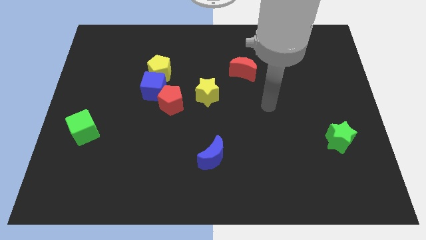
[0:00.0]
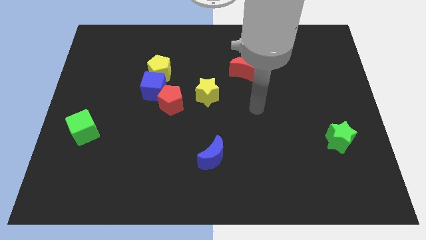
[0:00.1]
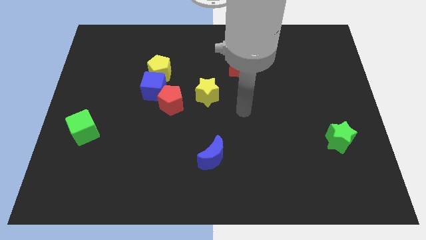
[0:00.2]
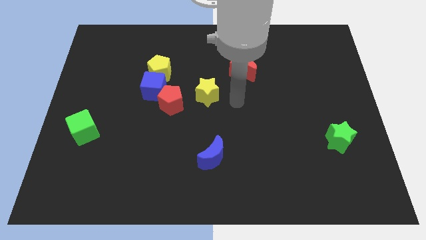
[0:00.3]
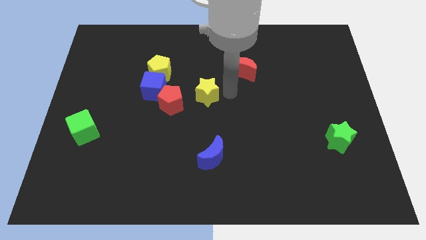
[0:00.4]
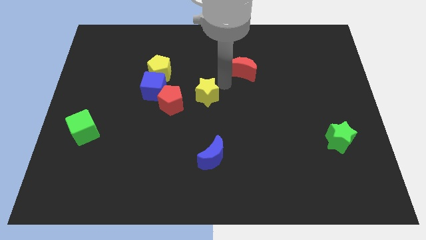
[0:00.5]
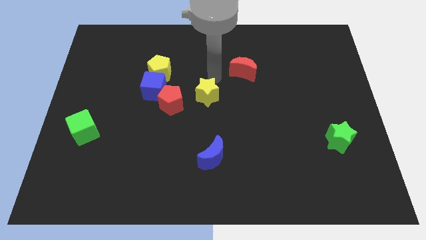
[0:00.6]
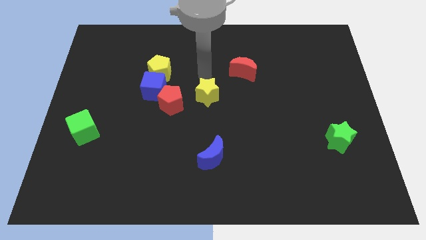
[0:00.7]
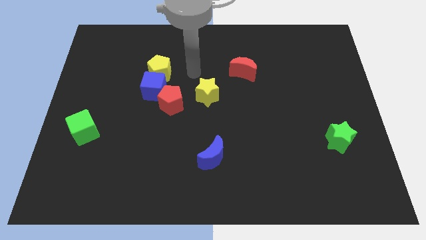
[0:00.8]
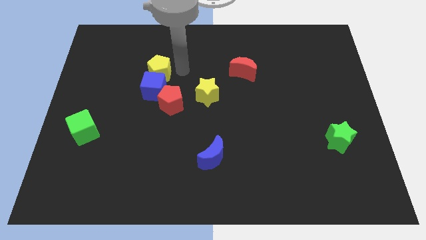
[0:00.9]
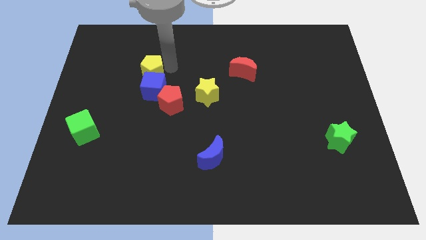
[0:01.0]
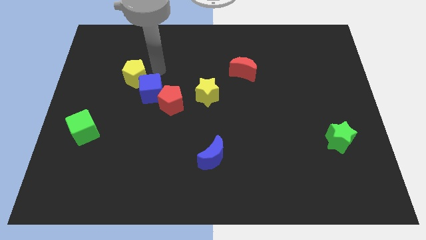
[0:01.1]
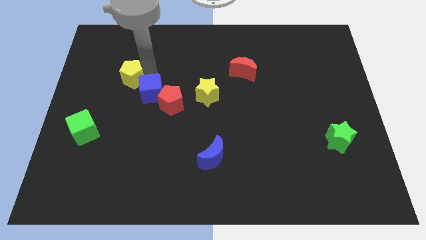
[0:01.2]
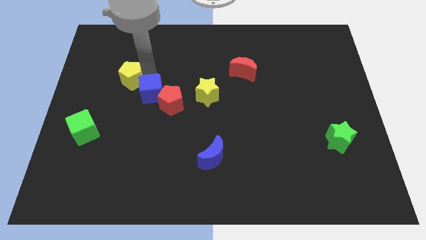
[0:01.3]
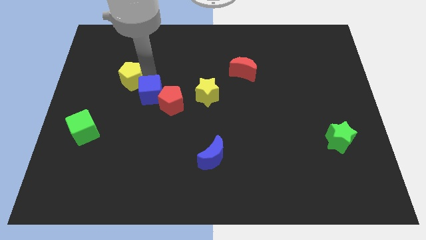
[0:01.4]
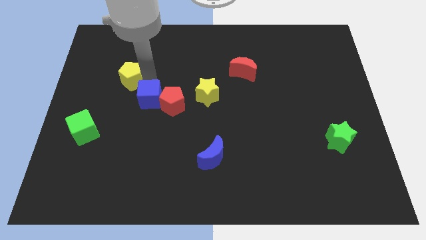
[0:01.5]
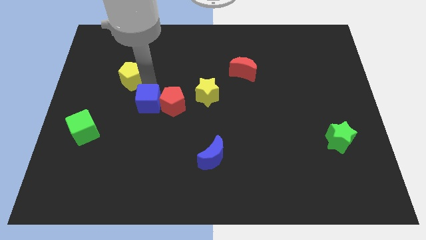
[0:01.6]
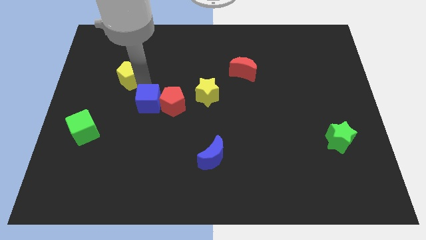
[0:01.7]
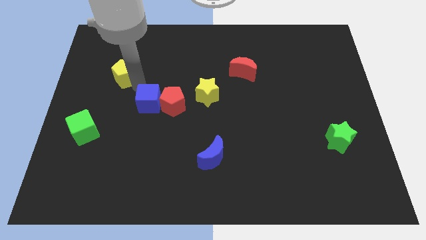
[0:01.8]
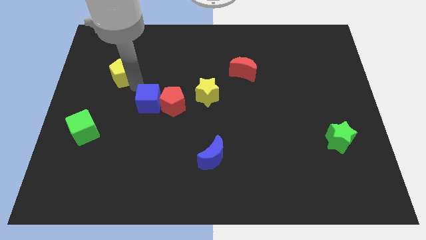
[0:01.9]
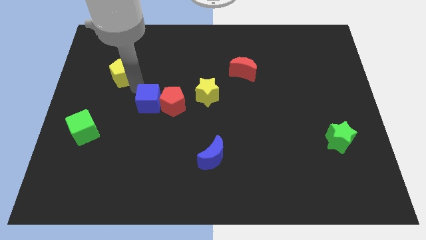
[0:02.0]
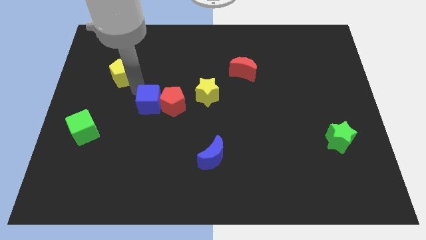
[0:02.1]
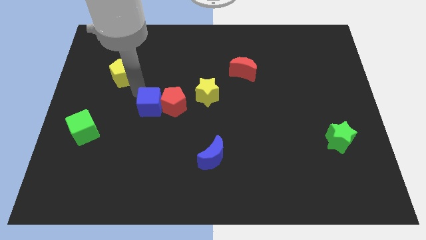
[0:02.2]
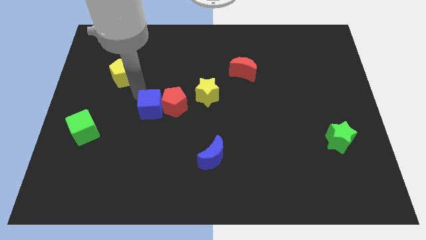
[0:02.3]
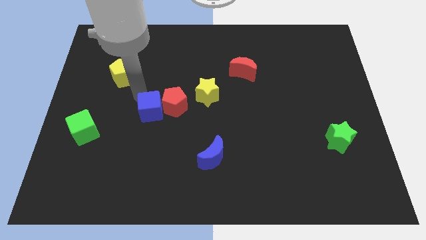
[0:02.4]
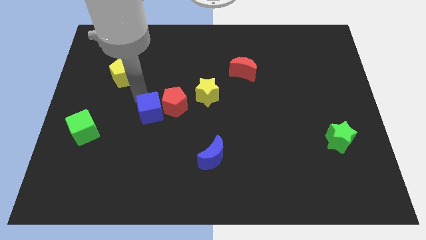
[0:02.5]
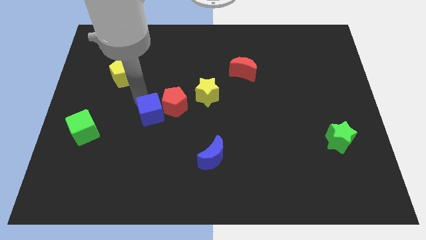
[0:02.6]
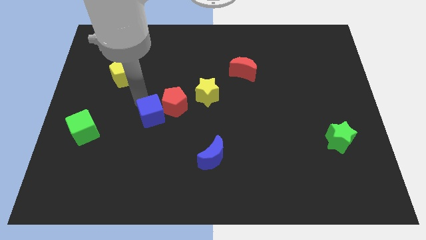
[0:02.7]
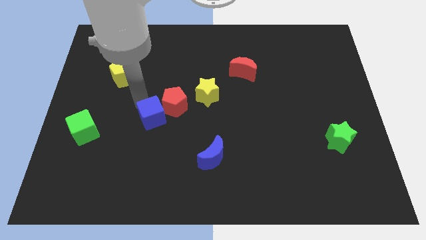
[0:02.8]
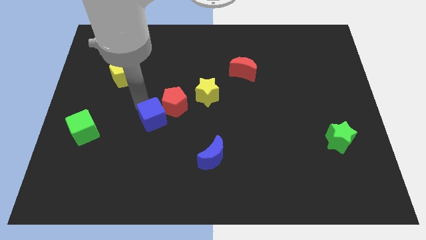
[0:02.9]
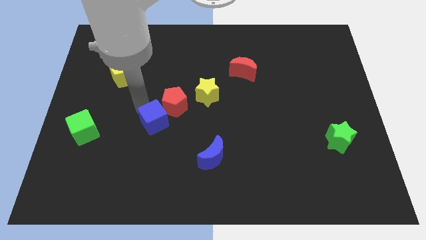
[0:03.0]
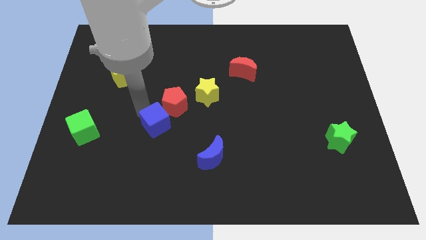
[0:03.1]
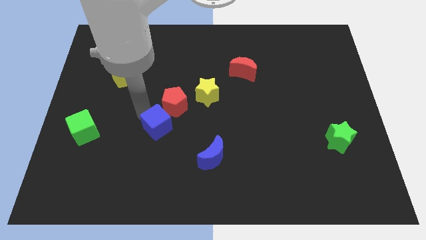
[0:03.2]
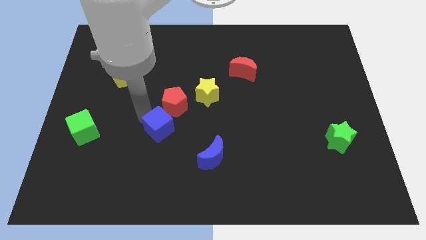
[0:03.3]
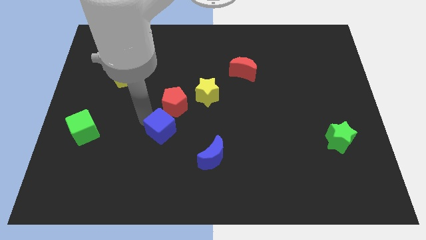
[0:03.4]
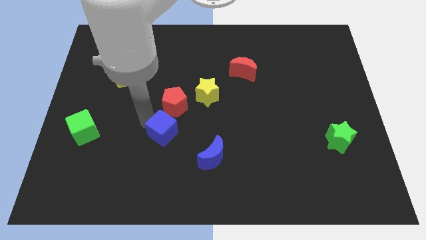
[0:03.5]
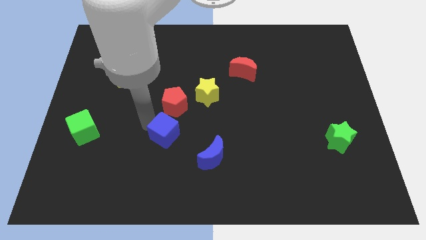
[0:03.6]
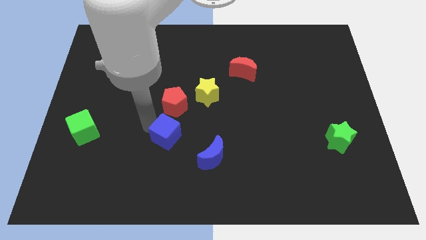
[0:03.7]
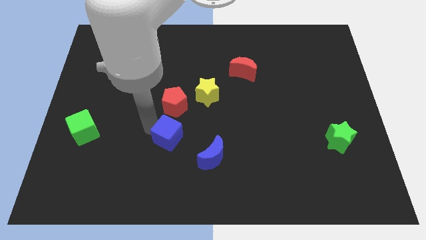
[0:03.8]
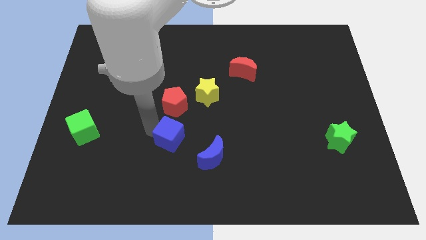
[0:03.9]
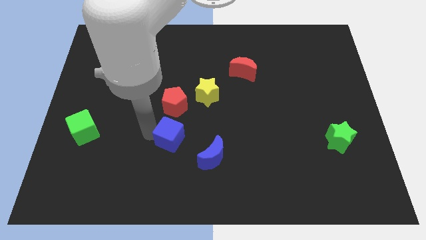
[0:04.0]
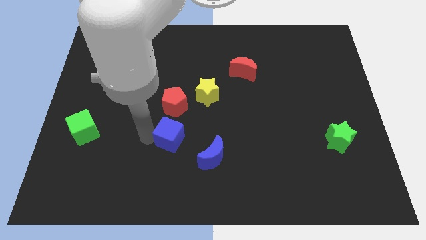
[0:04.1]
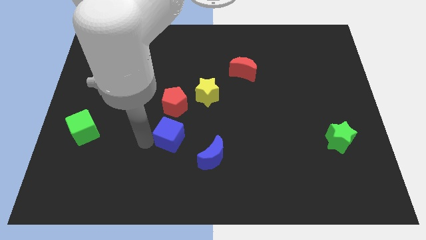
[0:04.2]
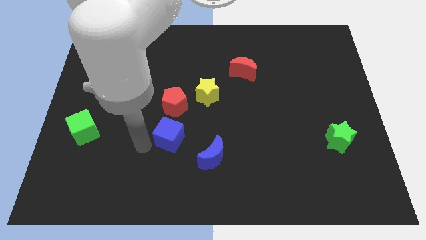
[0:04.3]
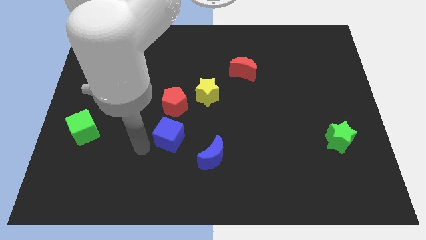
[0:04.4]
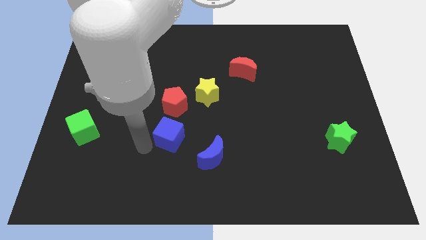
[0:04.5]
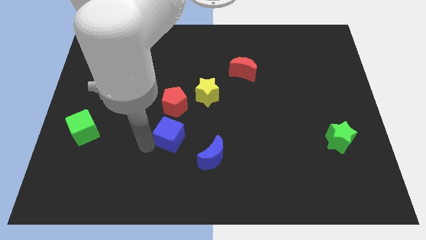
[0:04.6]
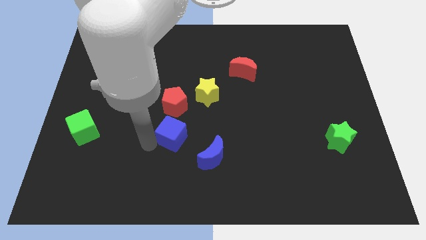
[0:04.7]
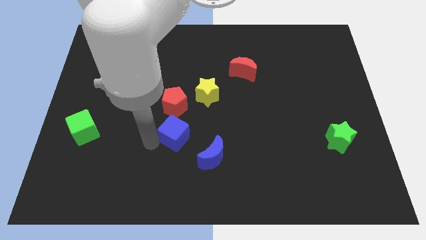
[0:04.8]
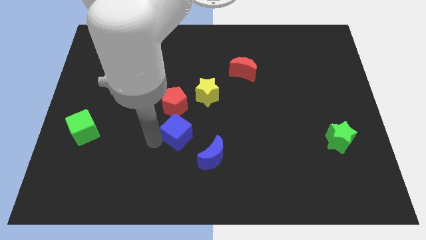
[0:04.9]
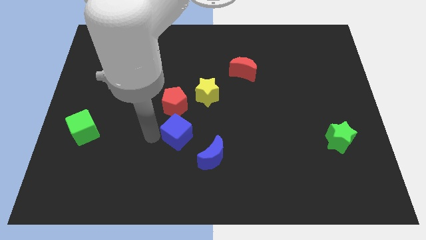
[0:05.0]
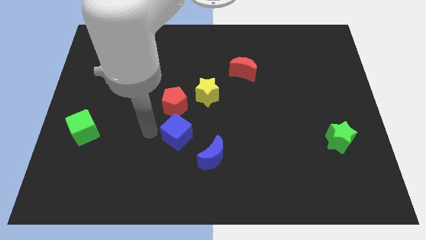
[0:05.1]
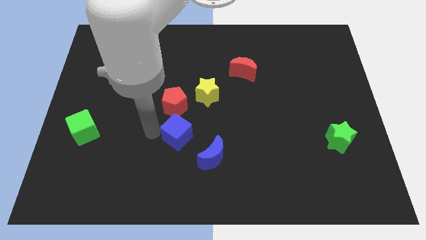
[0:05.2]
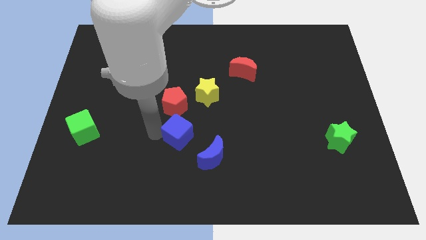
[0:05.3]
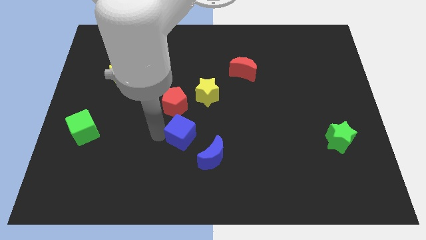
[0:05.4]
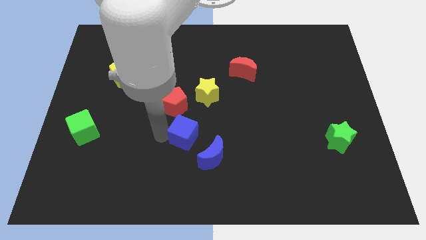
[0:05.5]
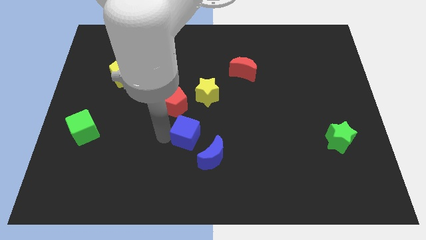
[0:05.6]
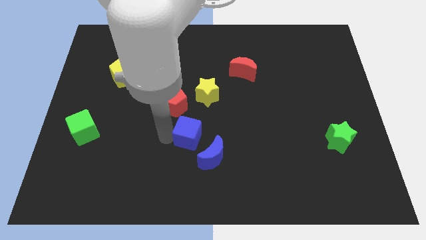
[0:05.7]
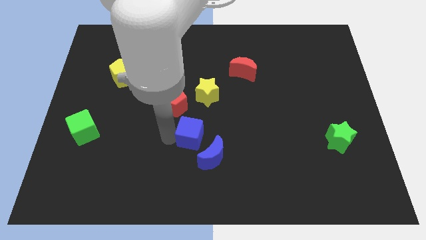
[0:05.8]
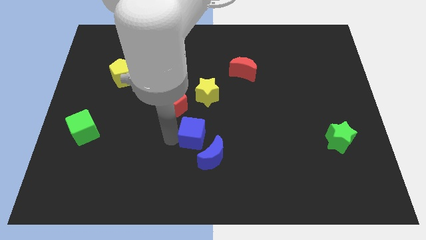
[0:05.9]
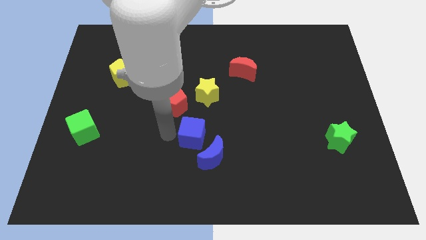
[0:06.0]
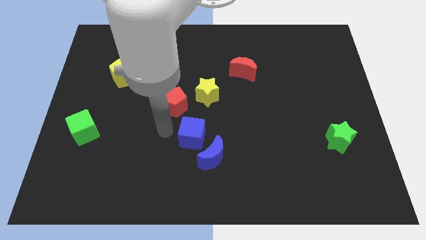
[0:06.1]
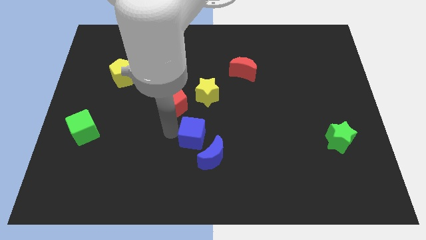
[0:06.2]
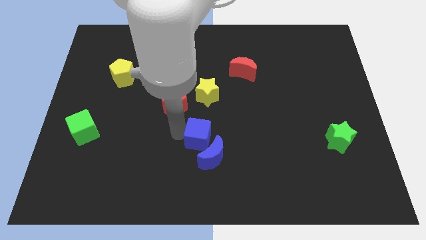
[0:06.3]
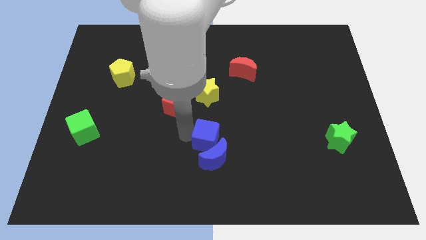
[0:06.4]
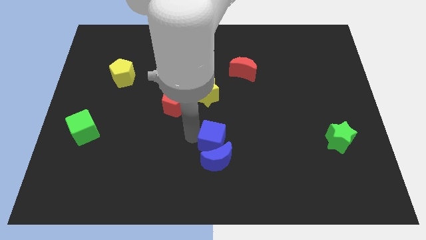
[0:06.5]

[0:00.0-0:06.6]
push the blue cube diagonally down and right

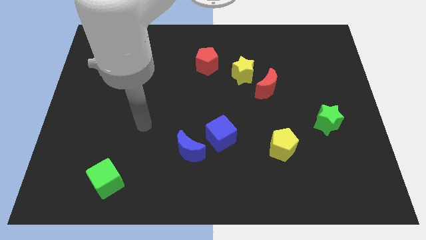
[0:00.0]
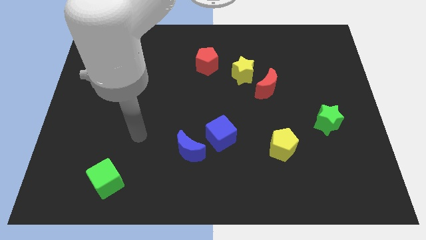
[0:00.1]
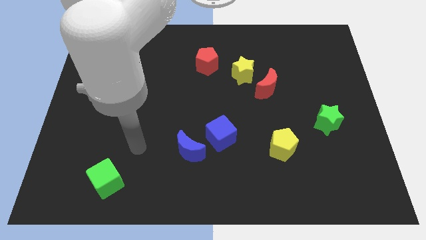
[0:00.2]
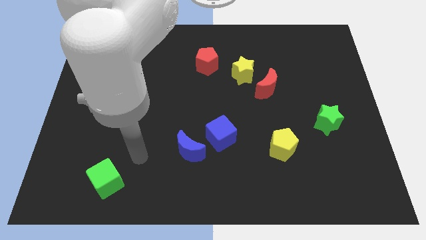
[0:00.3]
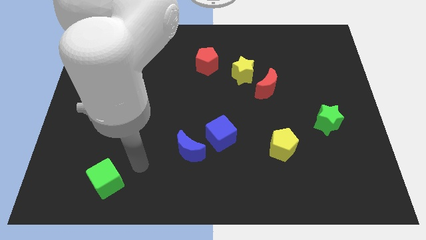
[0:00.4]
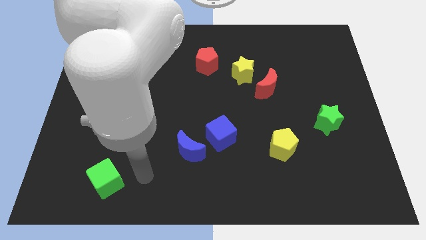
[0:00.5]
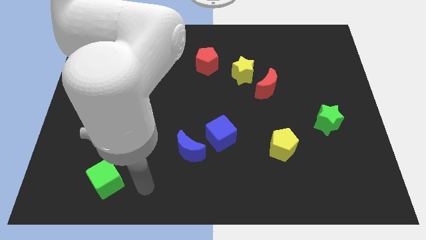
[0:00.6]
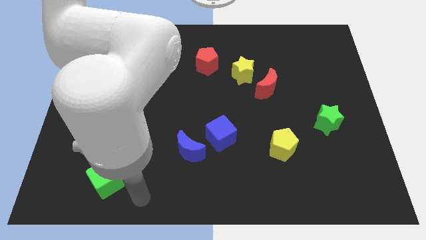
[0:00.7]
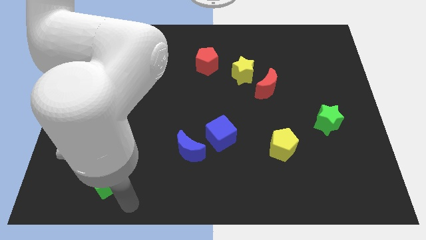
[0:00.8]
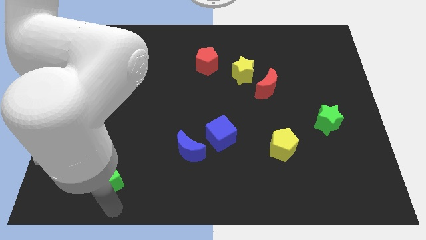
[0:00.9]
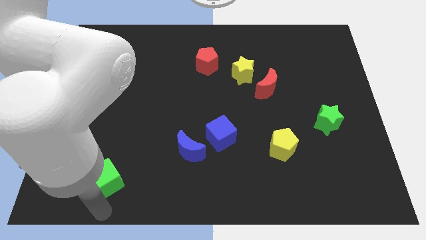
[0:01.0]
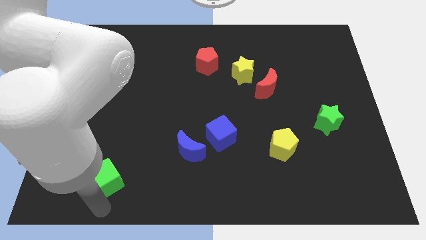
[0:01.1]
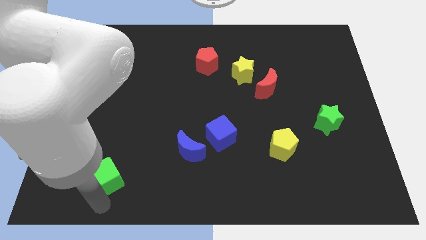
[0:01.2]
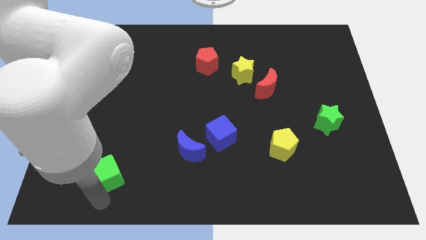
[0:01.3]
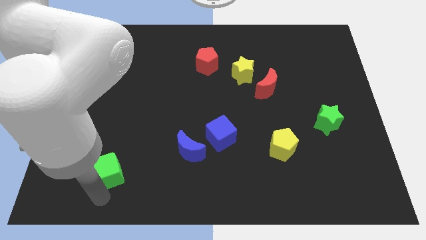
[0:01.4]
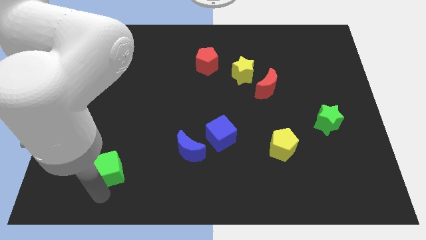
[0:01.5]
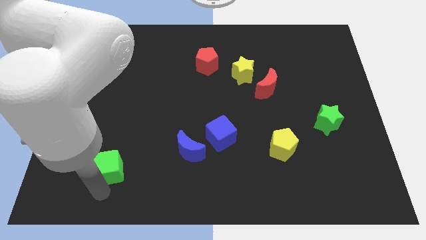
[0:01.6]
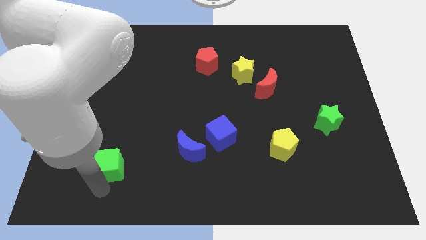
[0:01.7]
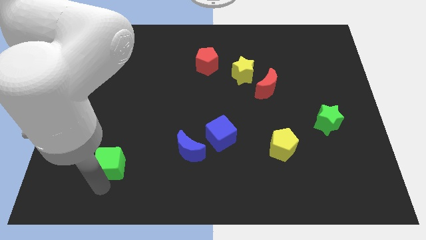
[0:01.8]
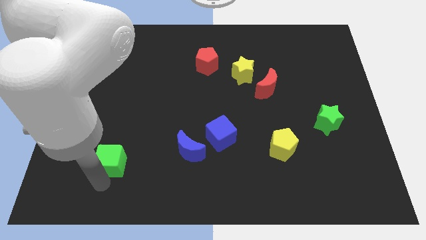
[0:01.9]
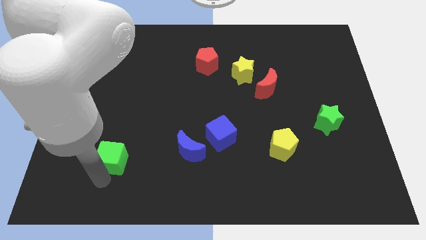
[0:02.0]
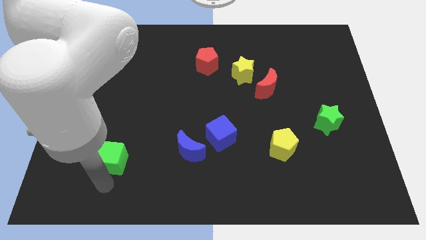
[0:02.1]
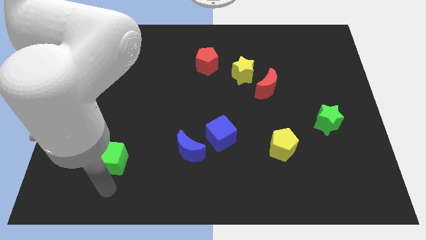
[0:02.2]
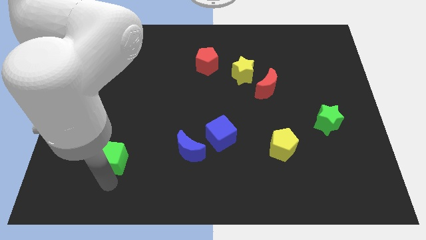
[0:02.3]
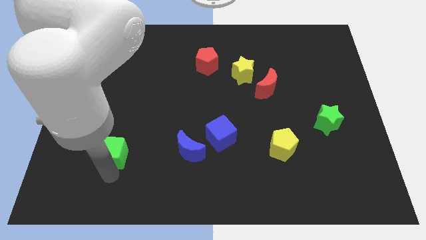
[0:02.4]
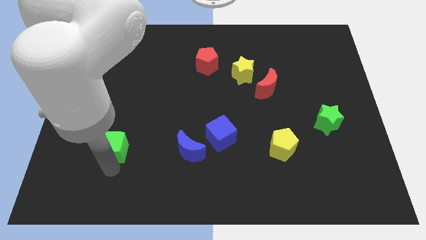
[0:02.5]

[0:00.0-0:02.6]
move the green cube upwards a bit
